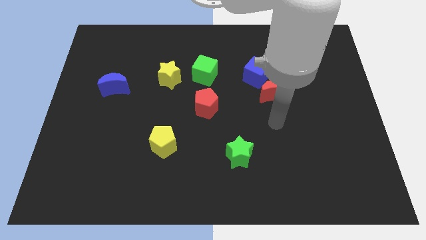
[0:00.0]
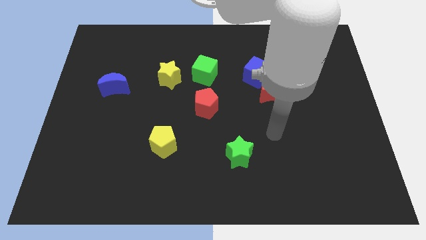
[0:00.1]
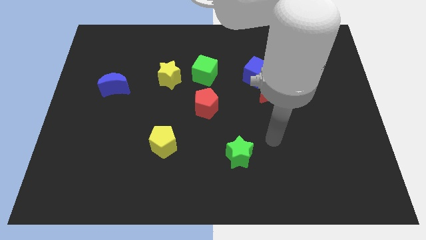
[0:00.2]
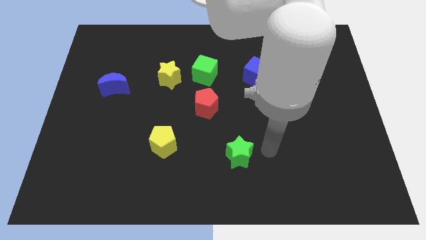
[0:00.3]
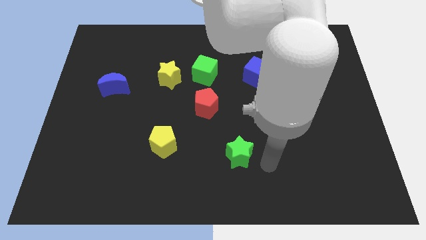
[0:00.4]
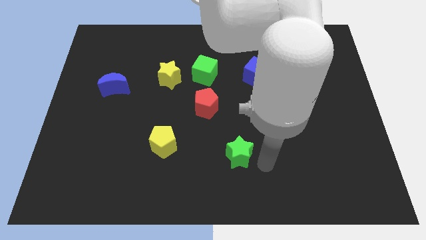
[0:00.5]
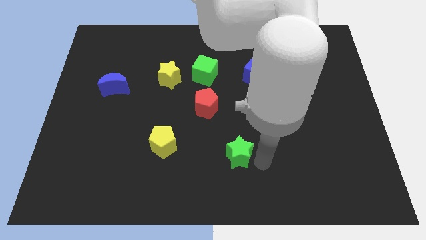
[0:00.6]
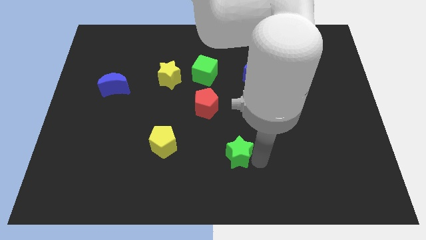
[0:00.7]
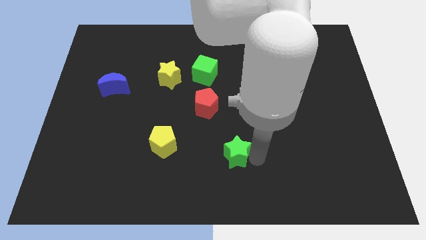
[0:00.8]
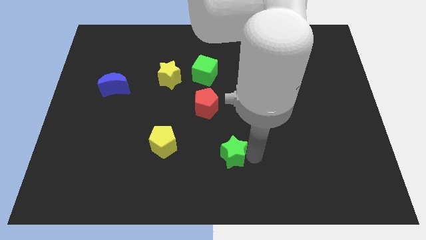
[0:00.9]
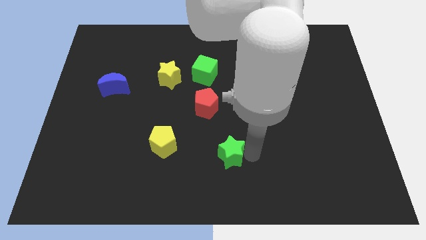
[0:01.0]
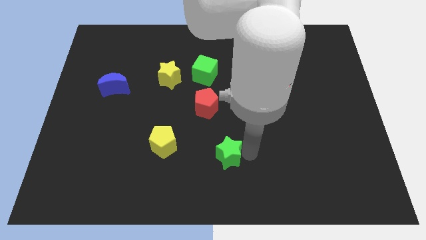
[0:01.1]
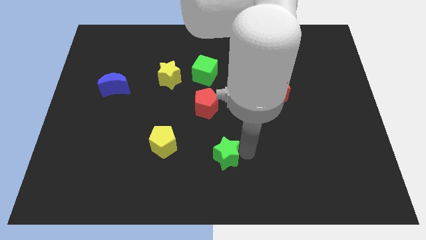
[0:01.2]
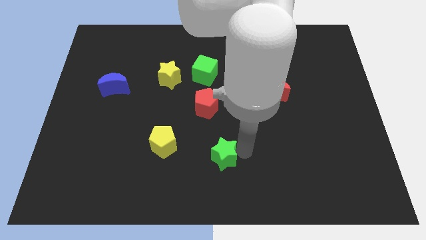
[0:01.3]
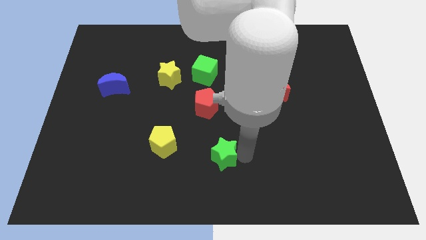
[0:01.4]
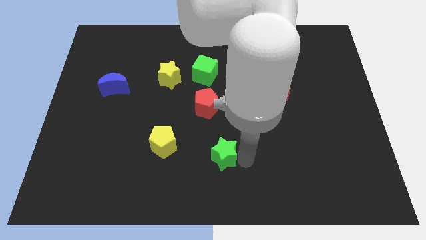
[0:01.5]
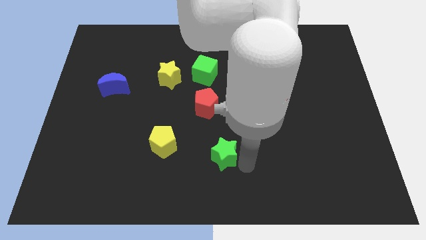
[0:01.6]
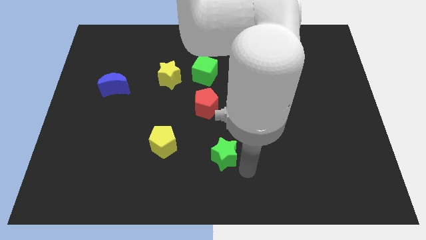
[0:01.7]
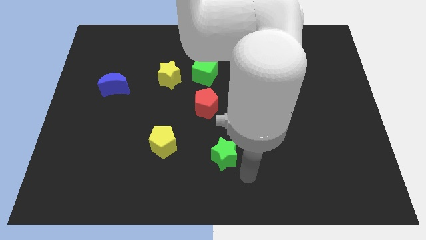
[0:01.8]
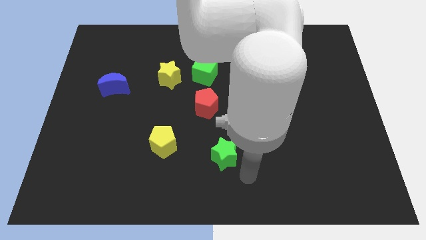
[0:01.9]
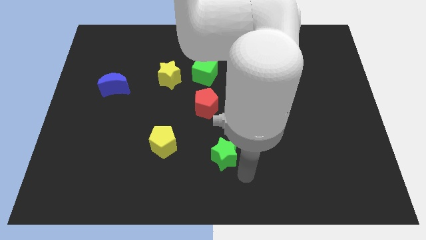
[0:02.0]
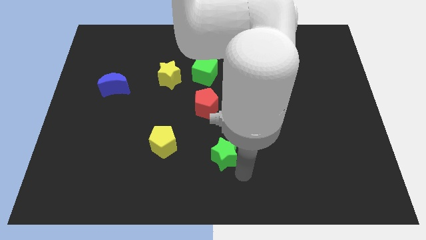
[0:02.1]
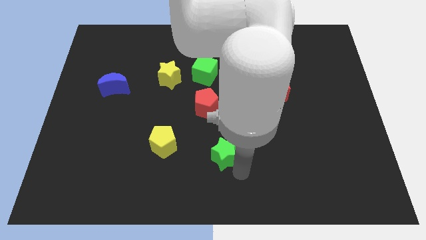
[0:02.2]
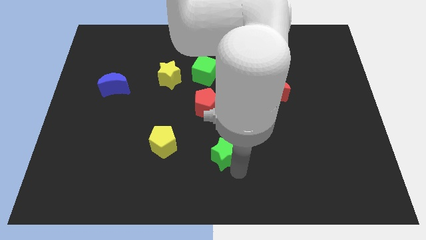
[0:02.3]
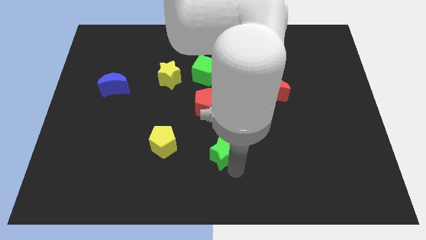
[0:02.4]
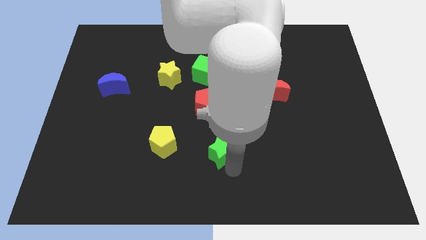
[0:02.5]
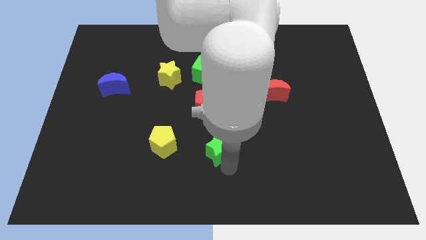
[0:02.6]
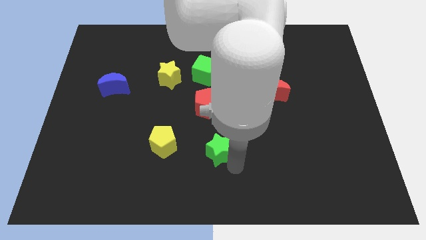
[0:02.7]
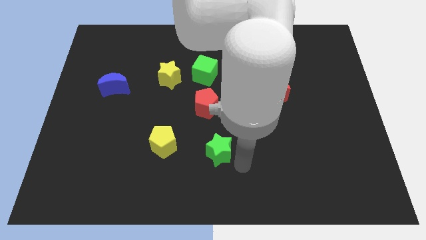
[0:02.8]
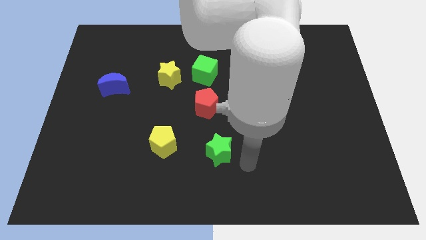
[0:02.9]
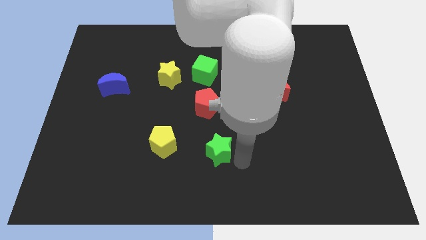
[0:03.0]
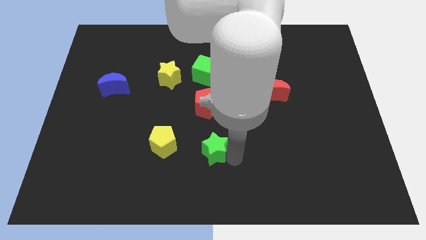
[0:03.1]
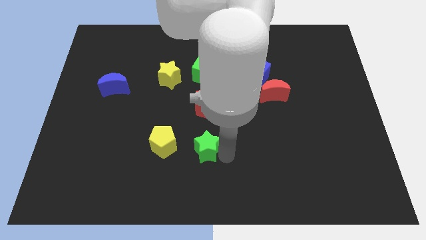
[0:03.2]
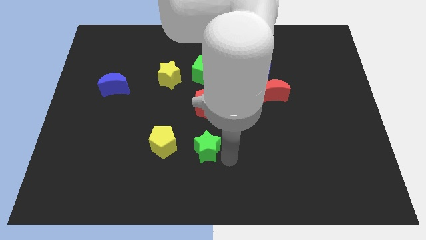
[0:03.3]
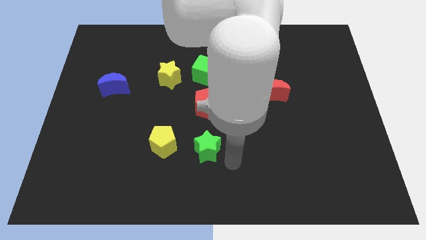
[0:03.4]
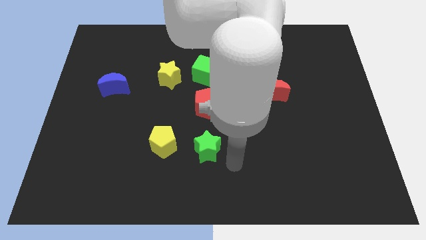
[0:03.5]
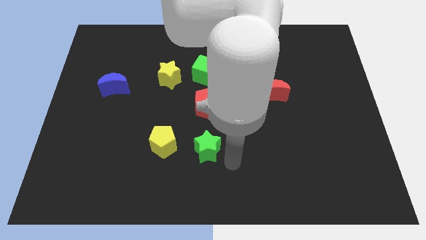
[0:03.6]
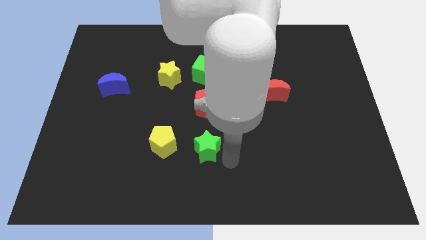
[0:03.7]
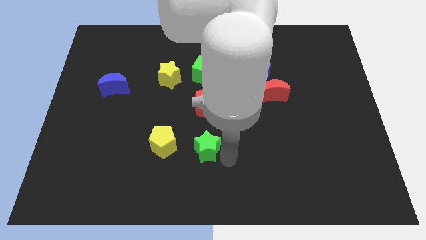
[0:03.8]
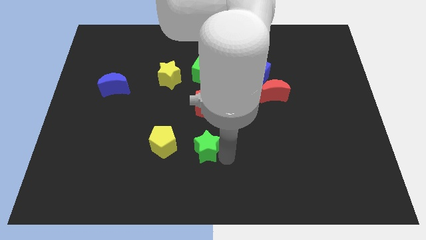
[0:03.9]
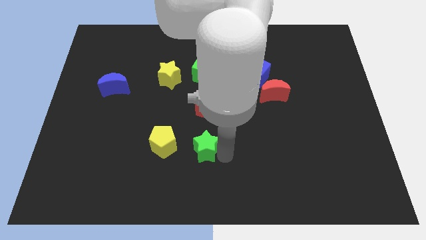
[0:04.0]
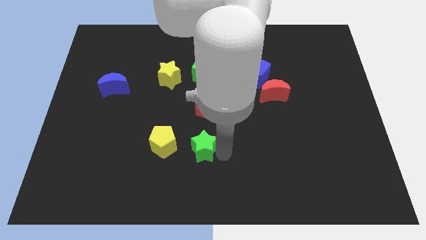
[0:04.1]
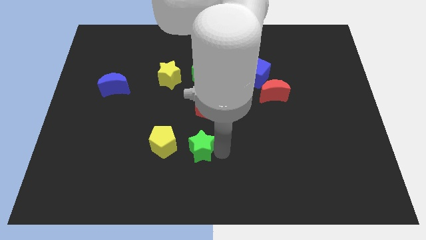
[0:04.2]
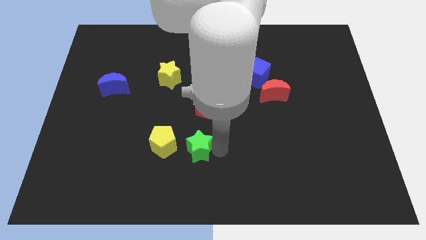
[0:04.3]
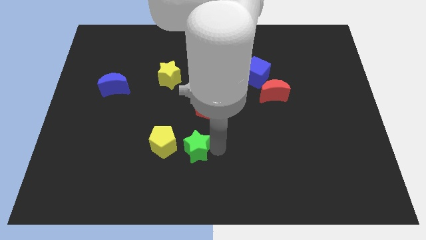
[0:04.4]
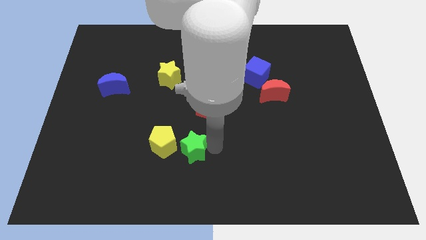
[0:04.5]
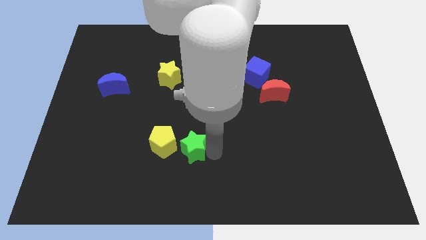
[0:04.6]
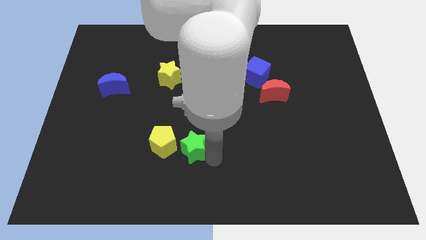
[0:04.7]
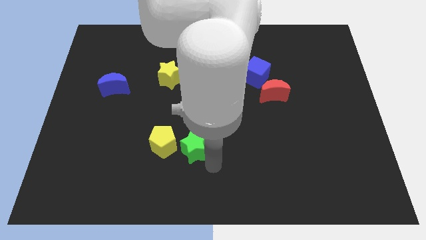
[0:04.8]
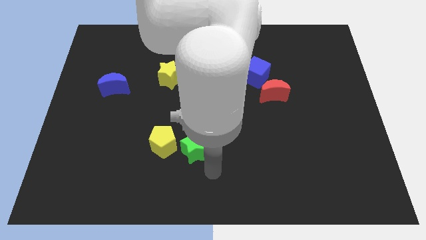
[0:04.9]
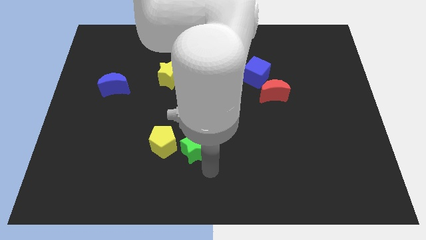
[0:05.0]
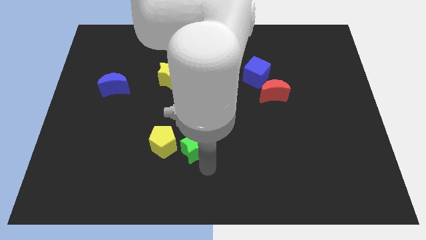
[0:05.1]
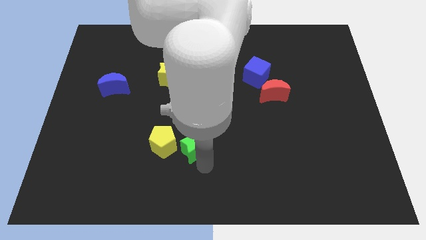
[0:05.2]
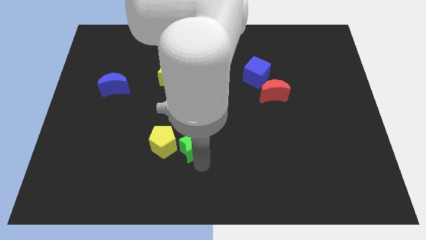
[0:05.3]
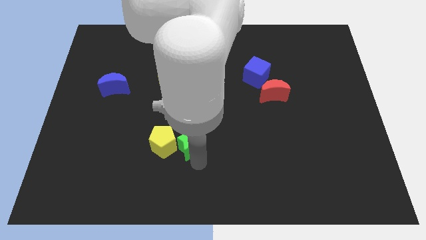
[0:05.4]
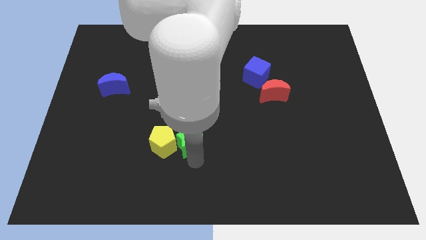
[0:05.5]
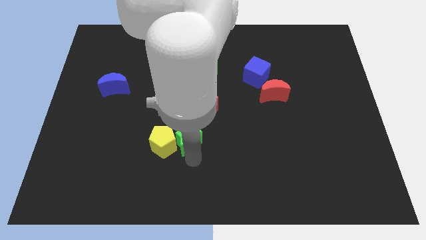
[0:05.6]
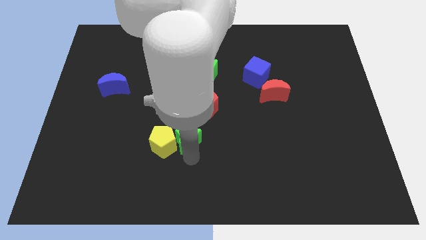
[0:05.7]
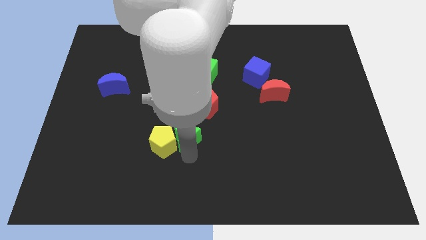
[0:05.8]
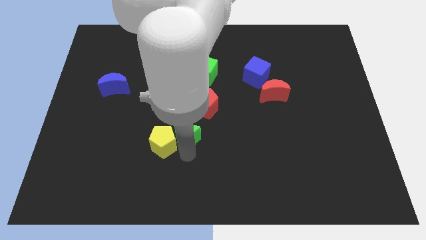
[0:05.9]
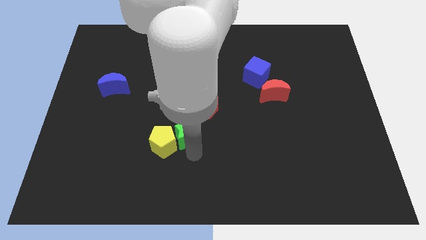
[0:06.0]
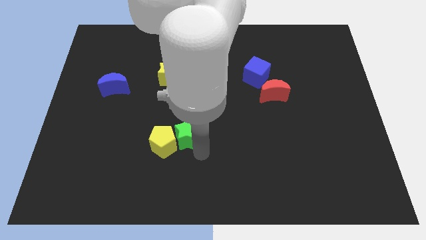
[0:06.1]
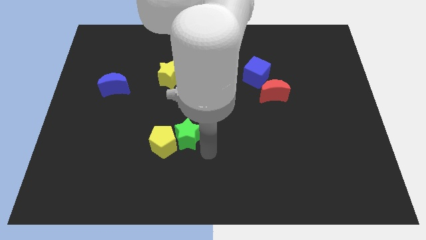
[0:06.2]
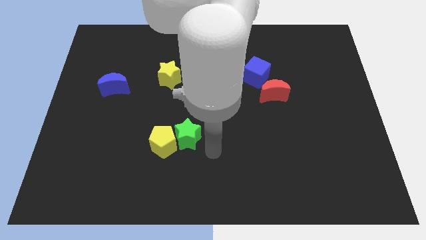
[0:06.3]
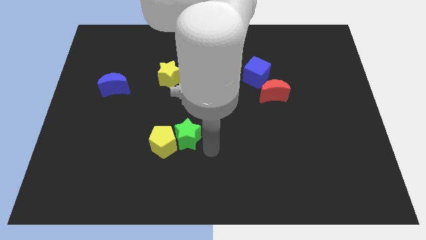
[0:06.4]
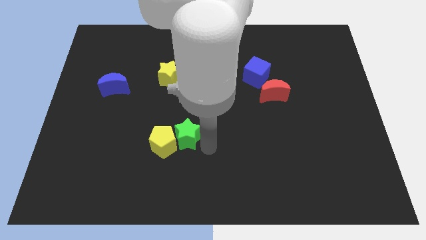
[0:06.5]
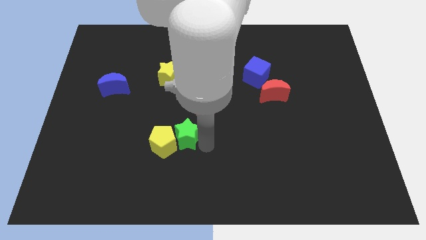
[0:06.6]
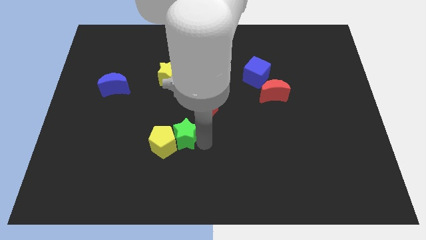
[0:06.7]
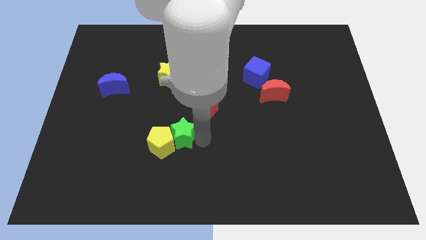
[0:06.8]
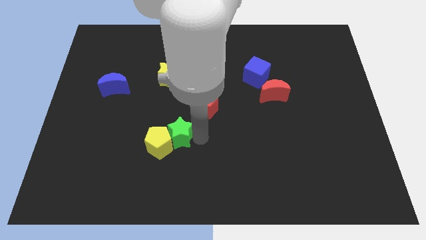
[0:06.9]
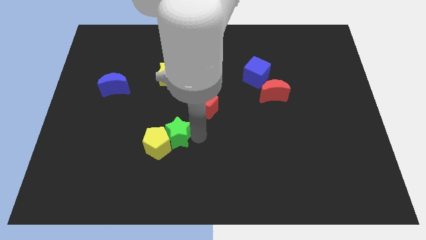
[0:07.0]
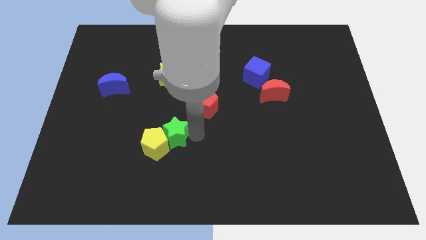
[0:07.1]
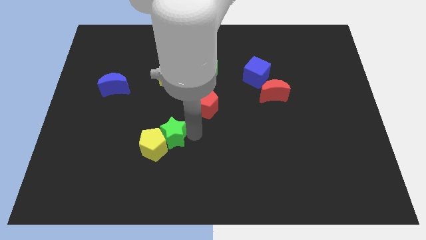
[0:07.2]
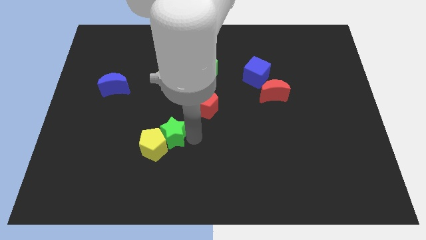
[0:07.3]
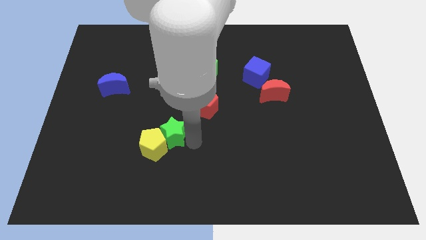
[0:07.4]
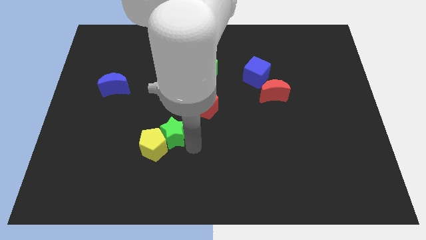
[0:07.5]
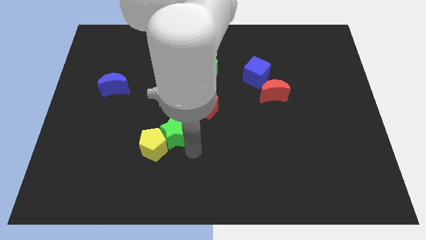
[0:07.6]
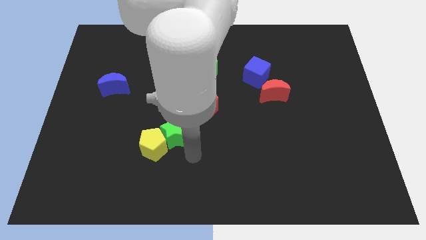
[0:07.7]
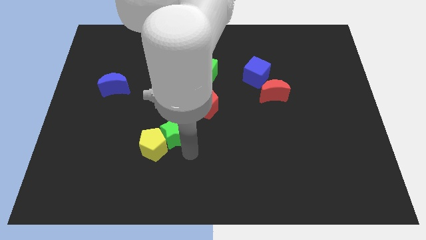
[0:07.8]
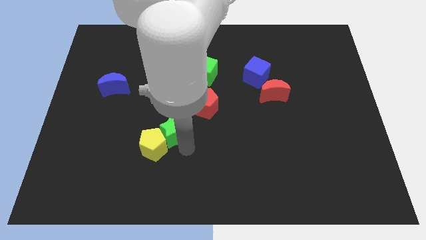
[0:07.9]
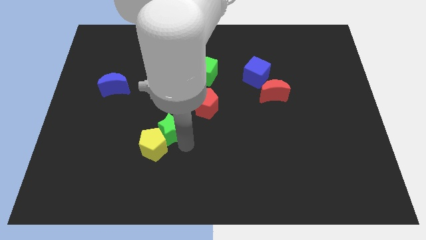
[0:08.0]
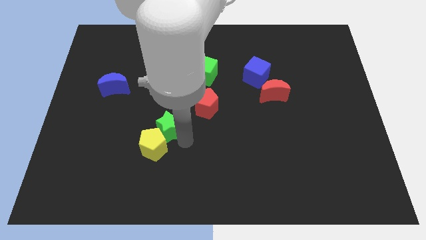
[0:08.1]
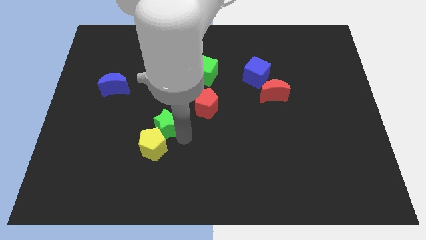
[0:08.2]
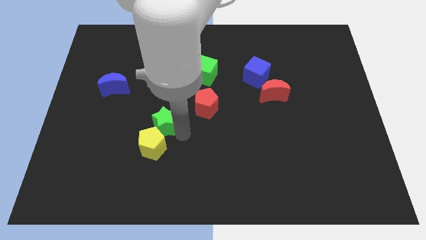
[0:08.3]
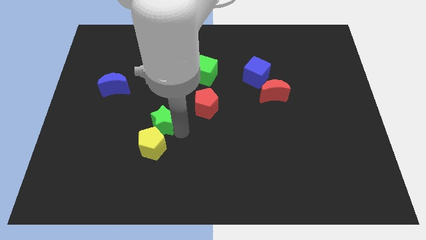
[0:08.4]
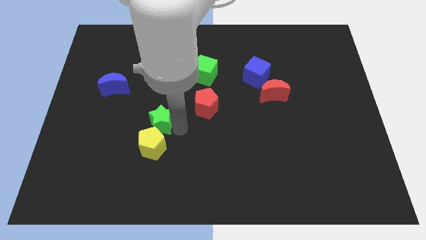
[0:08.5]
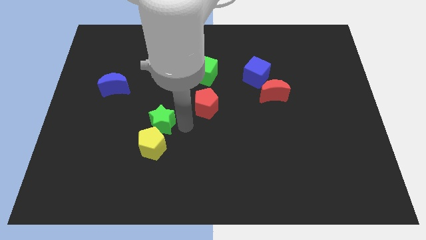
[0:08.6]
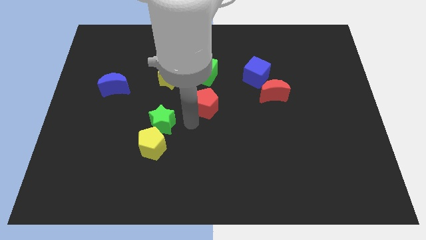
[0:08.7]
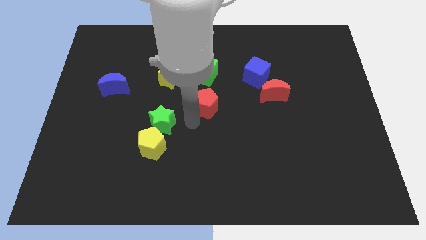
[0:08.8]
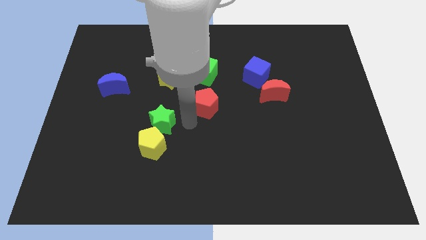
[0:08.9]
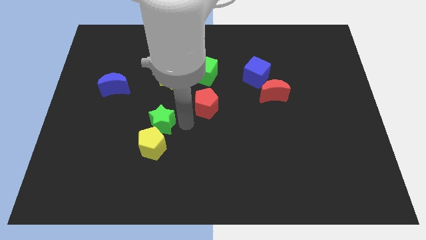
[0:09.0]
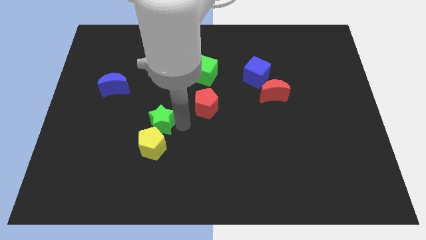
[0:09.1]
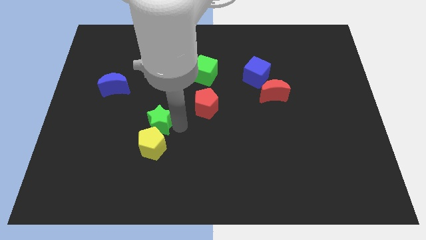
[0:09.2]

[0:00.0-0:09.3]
slide the green star diagonally up and to the left of the yellow pentagon
